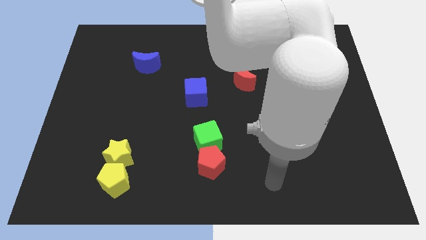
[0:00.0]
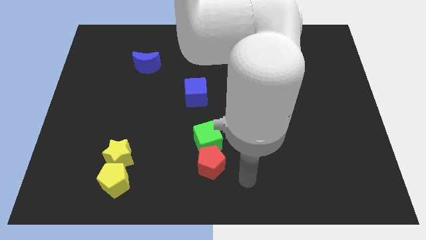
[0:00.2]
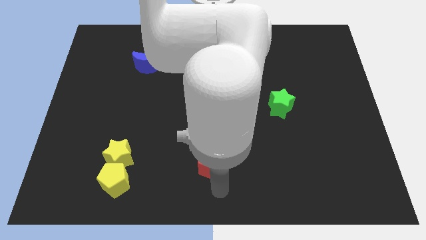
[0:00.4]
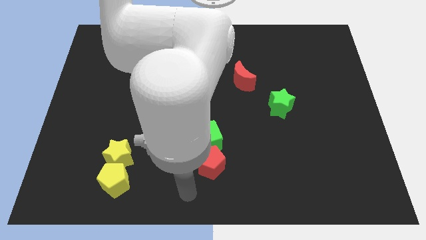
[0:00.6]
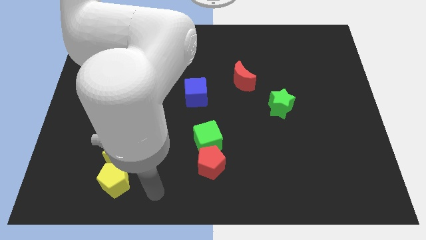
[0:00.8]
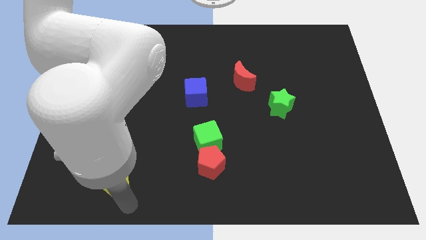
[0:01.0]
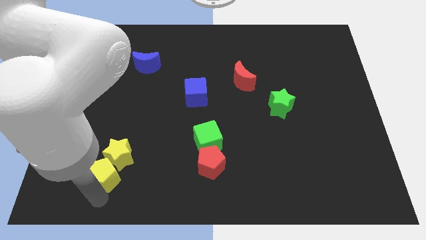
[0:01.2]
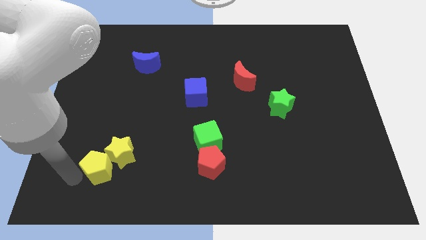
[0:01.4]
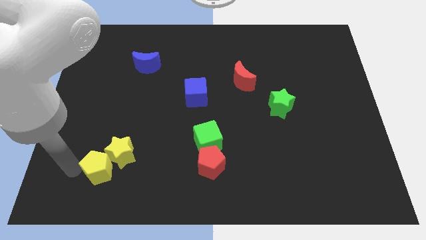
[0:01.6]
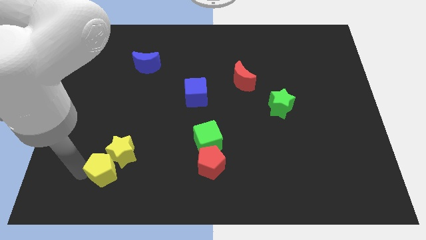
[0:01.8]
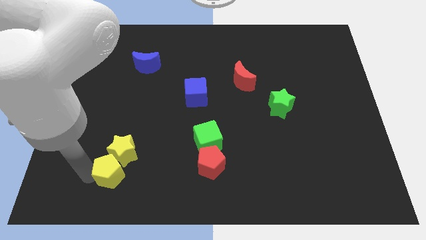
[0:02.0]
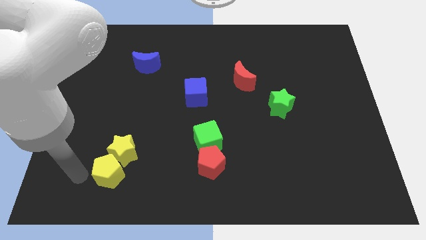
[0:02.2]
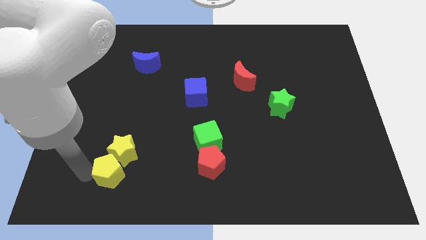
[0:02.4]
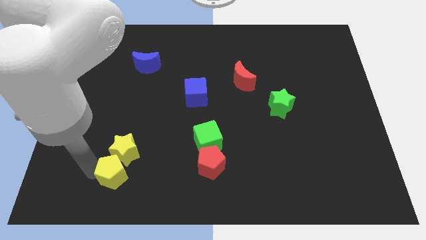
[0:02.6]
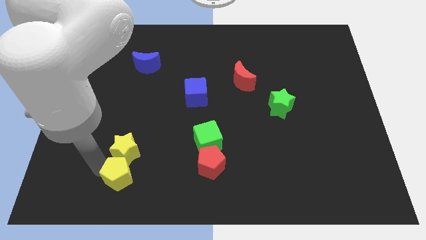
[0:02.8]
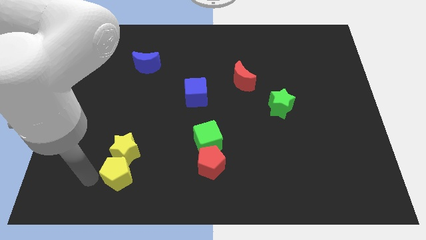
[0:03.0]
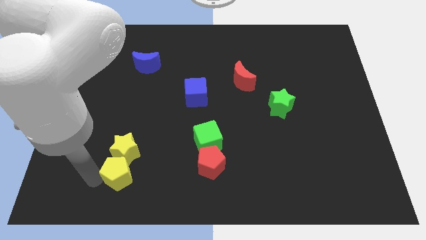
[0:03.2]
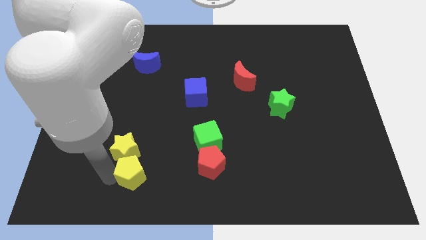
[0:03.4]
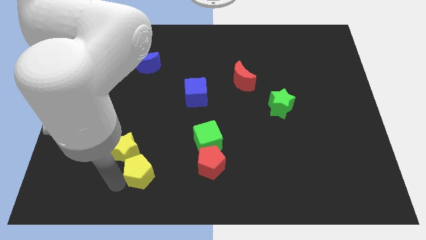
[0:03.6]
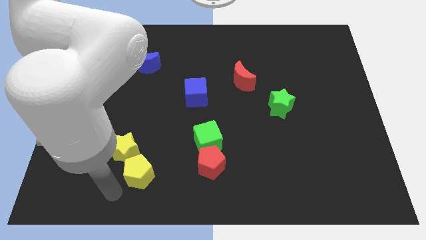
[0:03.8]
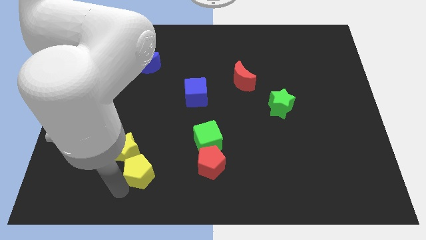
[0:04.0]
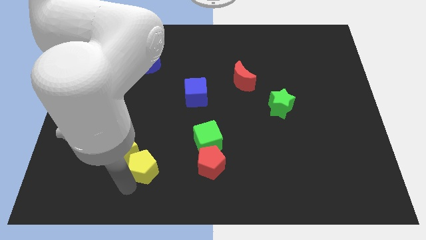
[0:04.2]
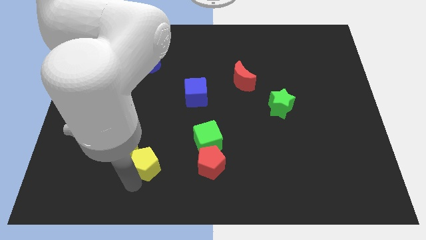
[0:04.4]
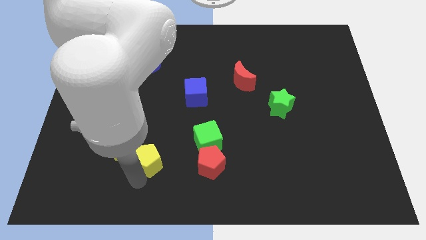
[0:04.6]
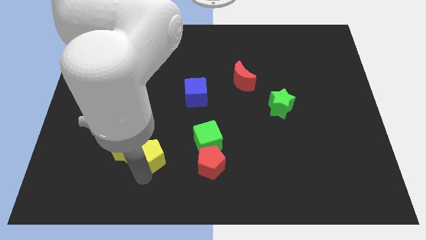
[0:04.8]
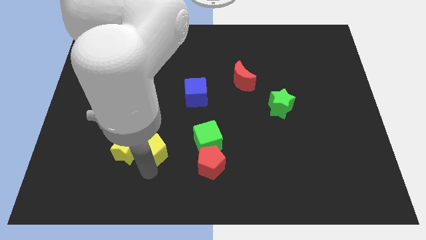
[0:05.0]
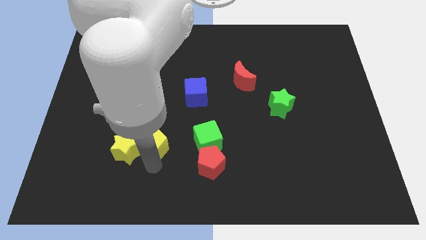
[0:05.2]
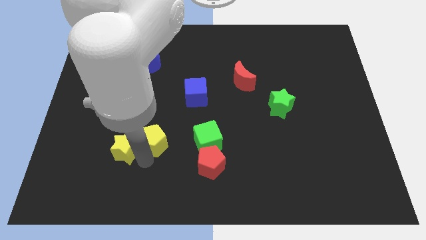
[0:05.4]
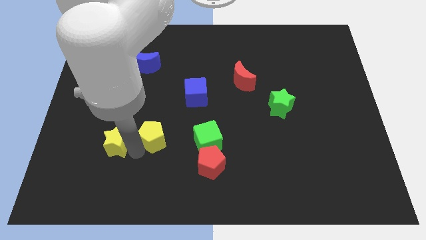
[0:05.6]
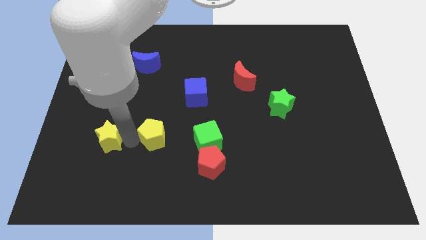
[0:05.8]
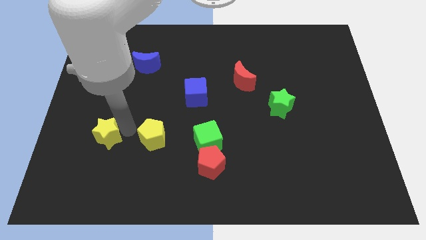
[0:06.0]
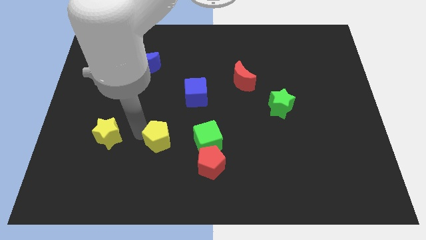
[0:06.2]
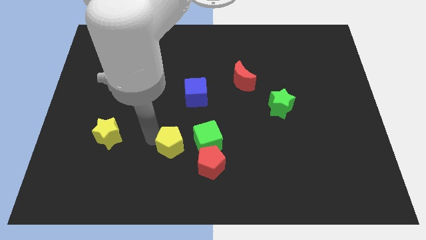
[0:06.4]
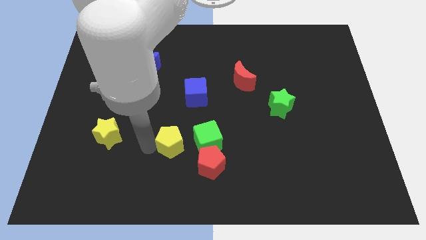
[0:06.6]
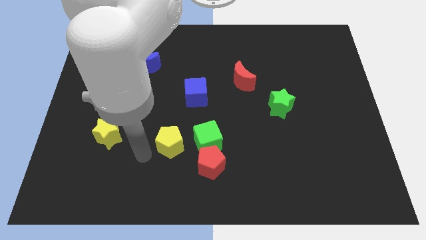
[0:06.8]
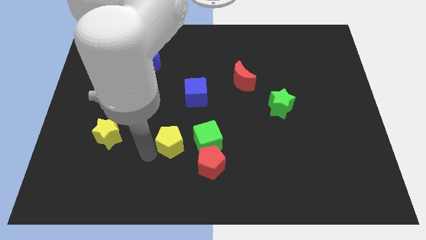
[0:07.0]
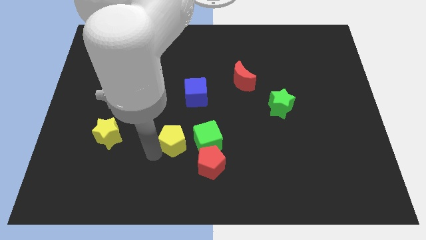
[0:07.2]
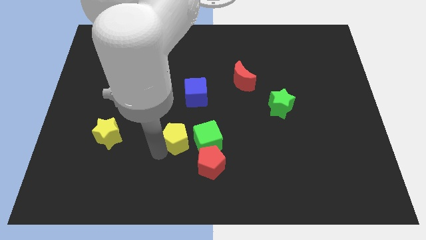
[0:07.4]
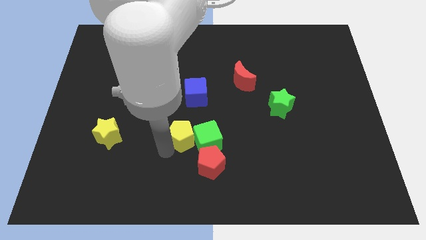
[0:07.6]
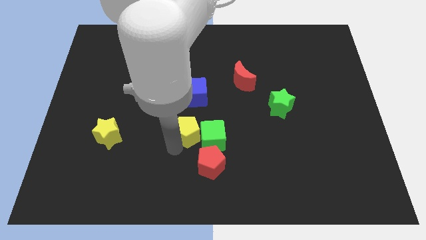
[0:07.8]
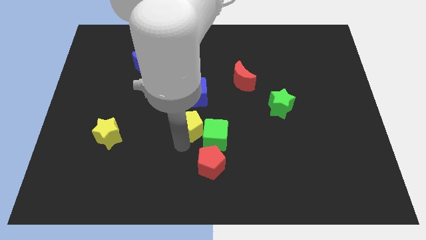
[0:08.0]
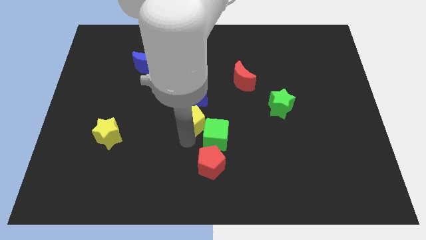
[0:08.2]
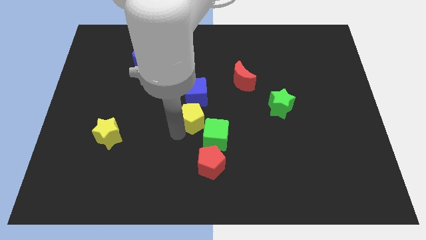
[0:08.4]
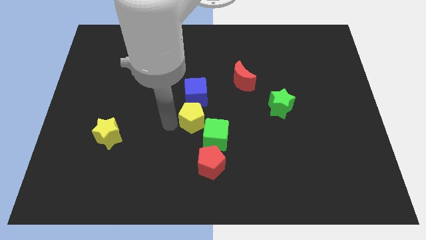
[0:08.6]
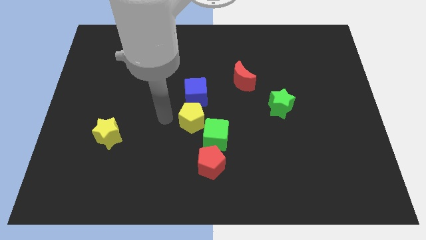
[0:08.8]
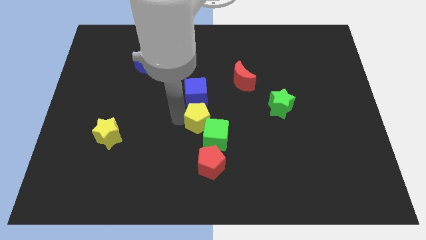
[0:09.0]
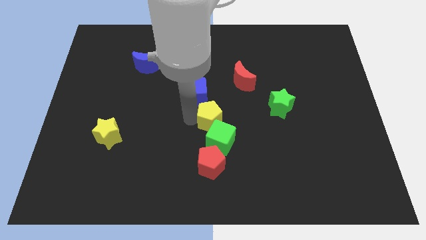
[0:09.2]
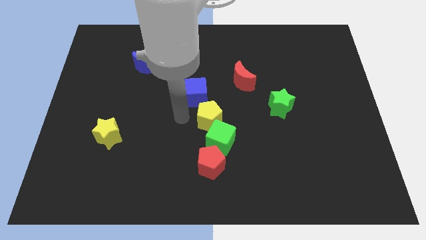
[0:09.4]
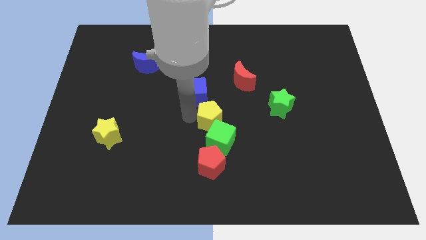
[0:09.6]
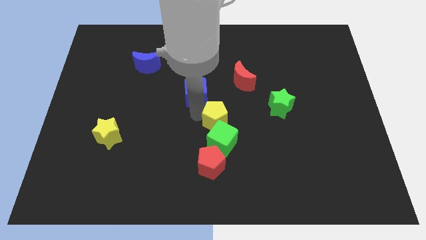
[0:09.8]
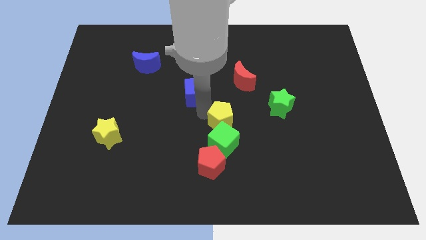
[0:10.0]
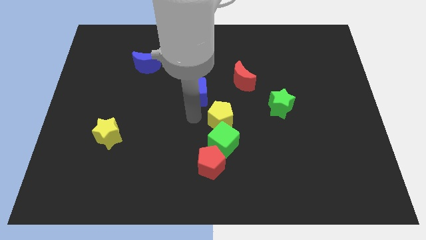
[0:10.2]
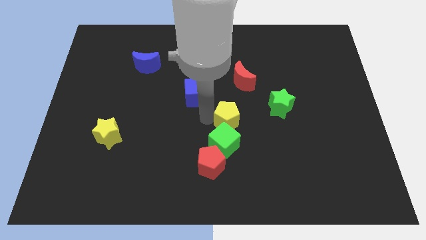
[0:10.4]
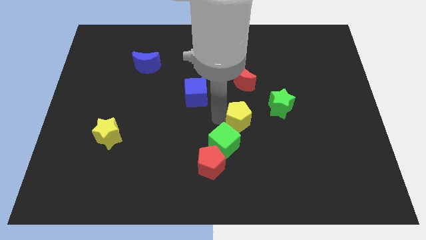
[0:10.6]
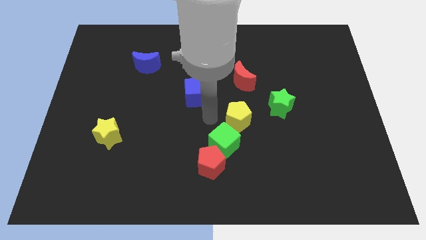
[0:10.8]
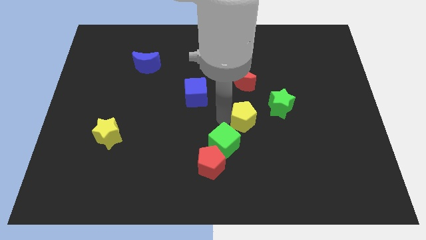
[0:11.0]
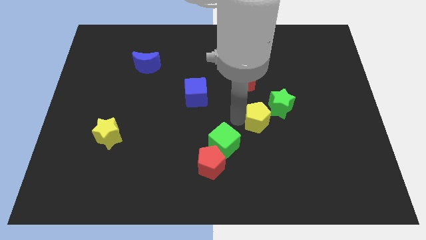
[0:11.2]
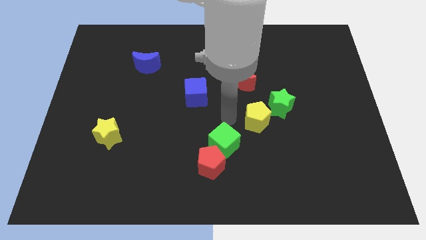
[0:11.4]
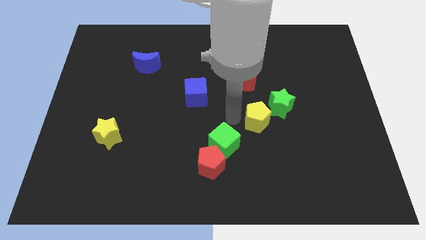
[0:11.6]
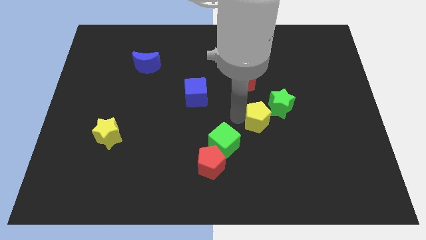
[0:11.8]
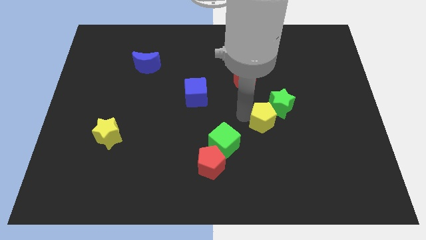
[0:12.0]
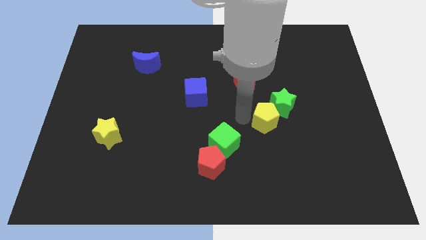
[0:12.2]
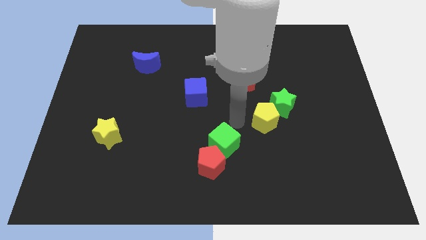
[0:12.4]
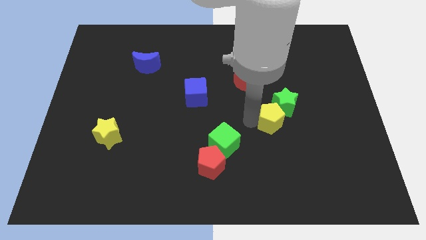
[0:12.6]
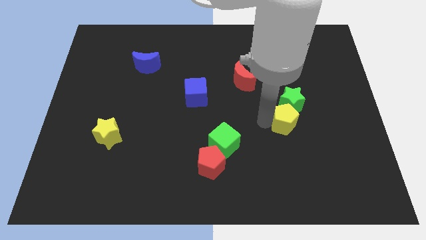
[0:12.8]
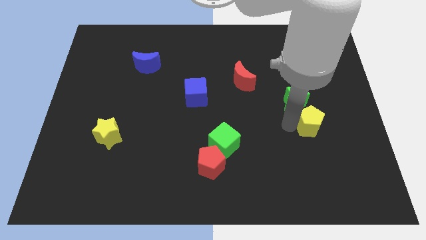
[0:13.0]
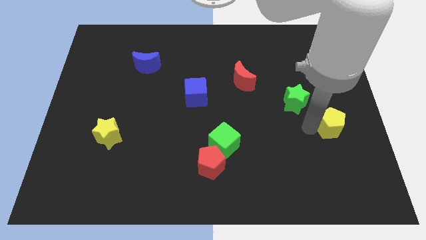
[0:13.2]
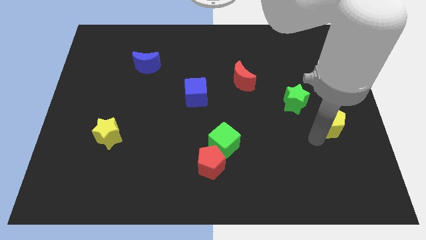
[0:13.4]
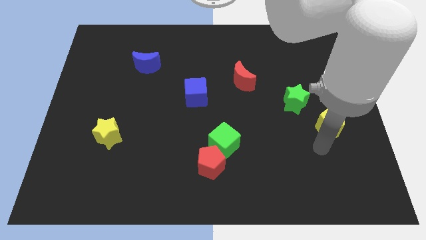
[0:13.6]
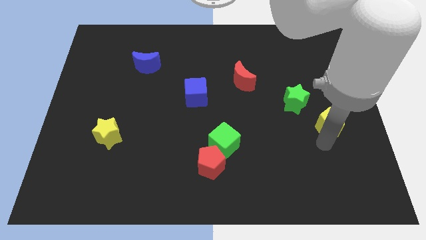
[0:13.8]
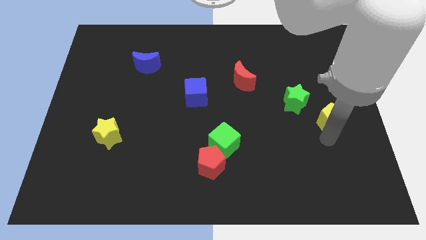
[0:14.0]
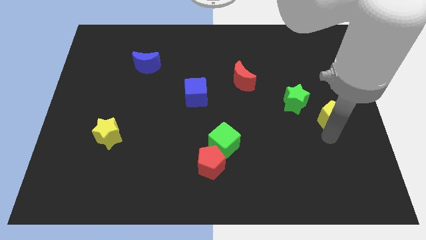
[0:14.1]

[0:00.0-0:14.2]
slide the yellow pentagon to the right side of the green star
